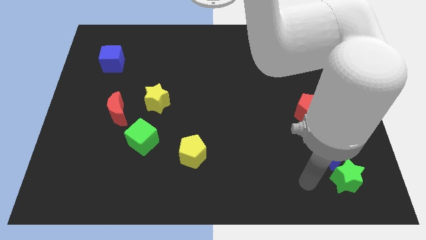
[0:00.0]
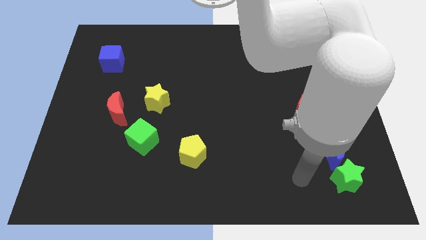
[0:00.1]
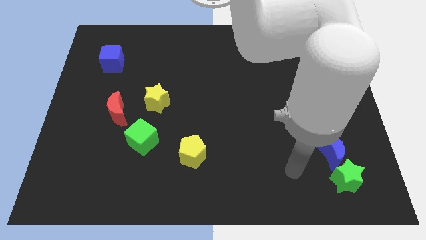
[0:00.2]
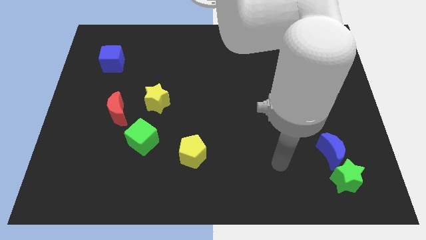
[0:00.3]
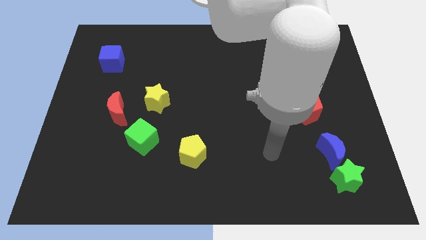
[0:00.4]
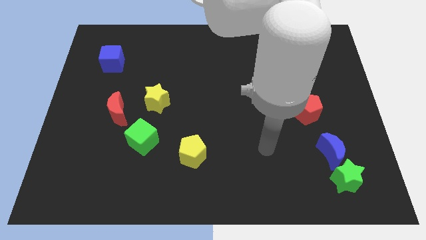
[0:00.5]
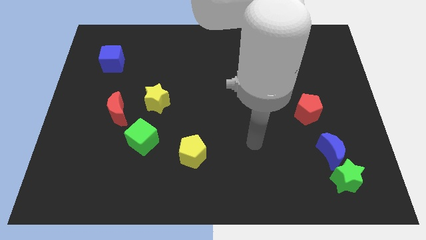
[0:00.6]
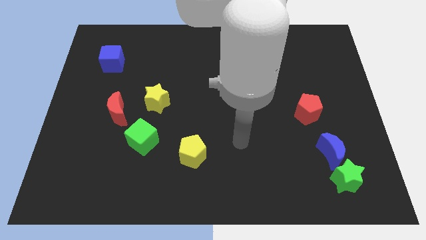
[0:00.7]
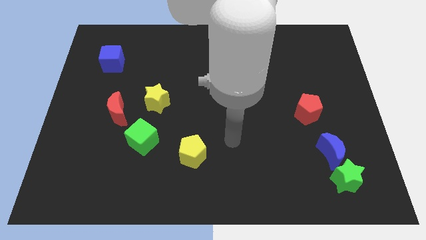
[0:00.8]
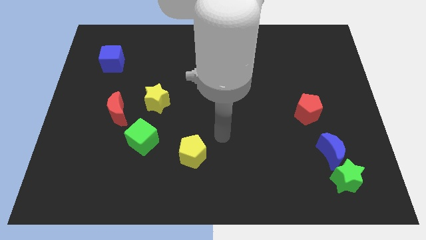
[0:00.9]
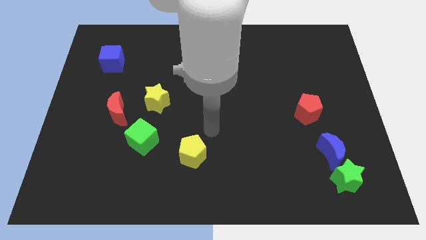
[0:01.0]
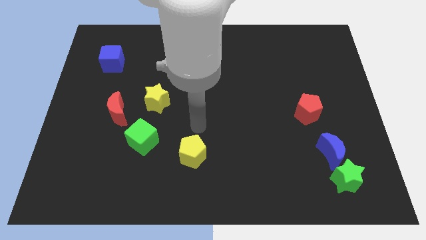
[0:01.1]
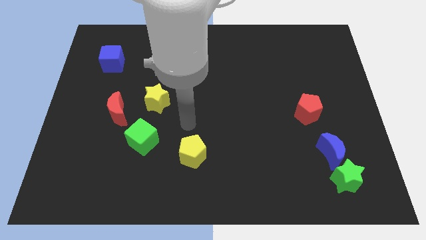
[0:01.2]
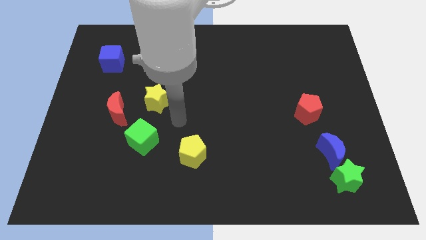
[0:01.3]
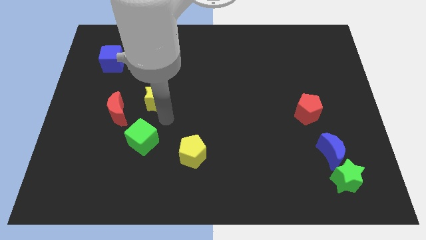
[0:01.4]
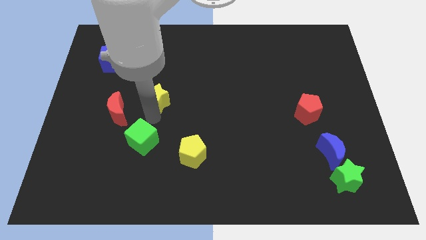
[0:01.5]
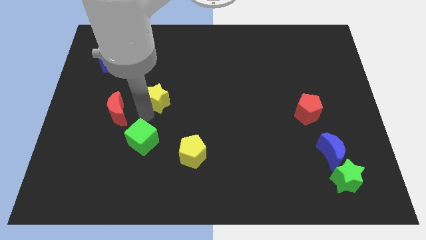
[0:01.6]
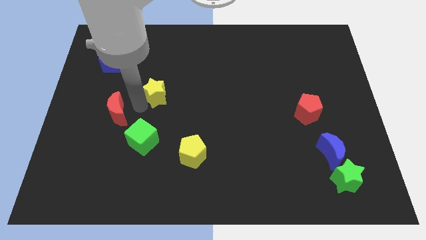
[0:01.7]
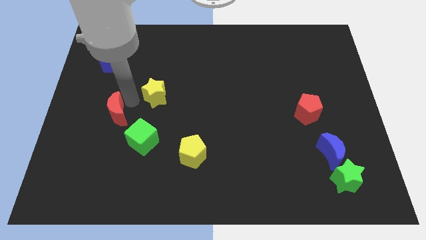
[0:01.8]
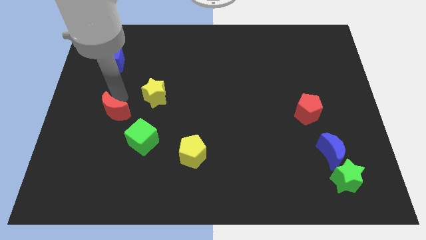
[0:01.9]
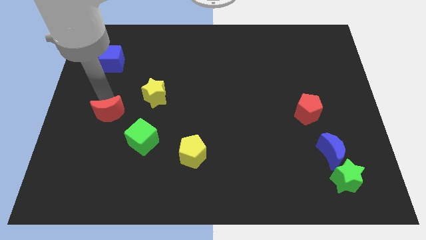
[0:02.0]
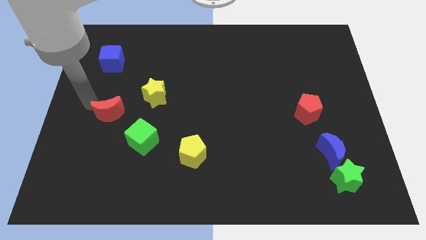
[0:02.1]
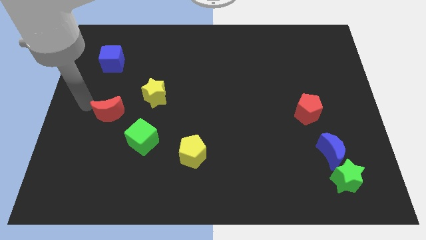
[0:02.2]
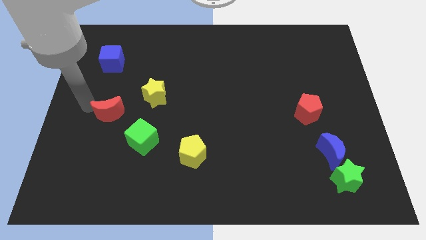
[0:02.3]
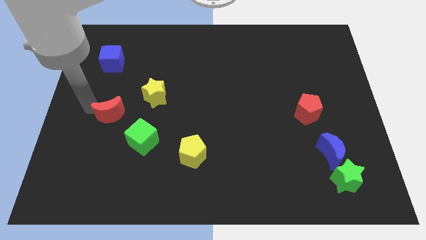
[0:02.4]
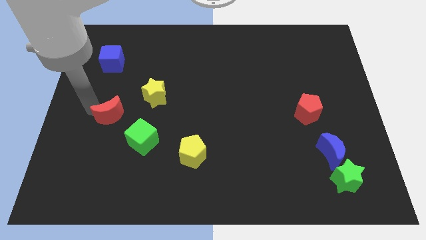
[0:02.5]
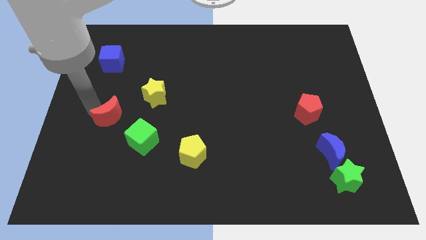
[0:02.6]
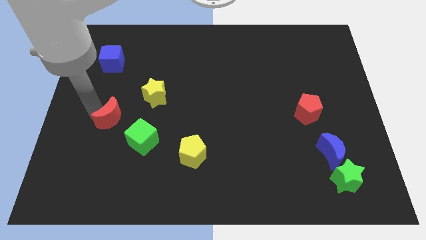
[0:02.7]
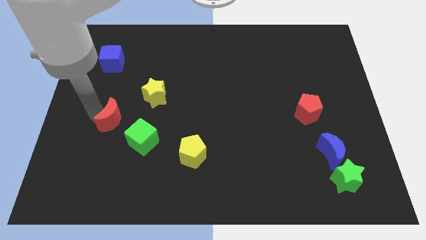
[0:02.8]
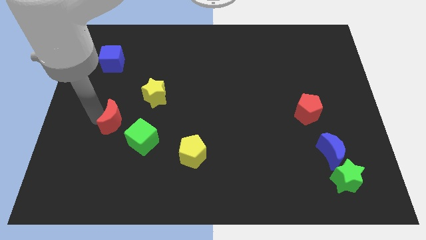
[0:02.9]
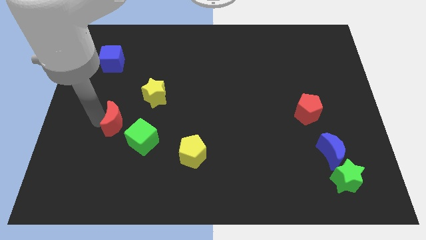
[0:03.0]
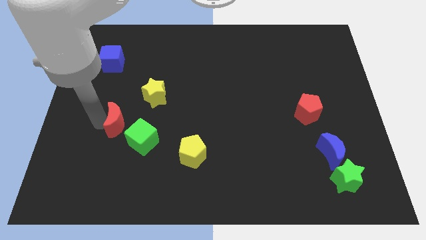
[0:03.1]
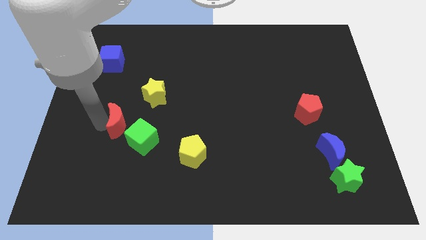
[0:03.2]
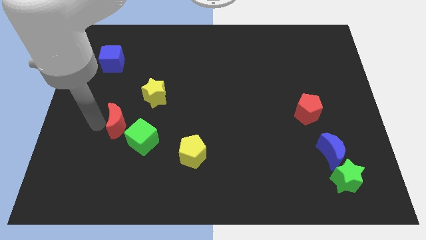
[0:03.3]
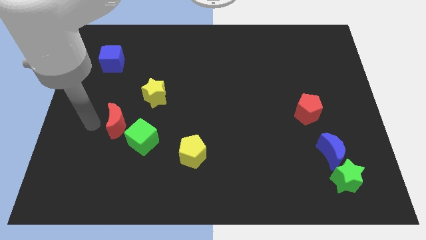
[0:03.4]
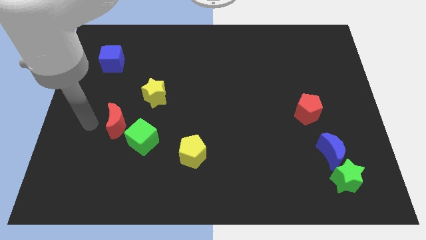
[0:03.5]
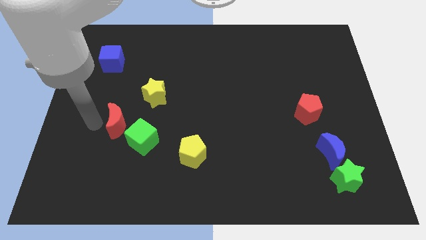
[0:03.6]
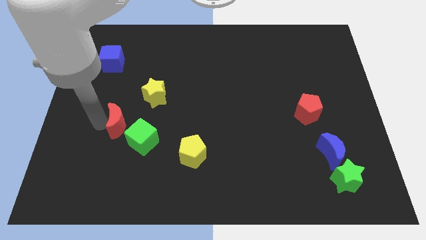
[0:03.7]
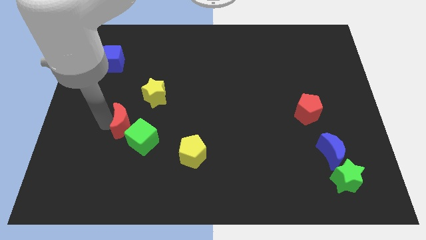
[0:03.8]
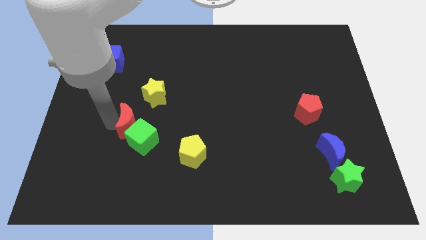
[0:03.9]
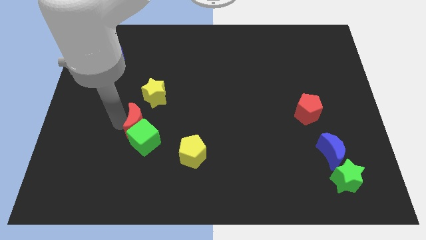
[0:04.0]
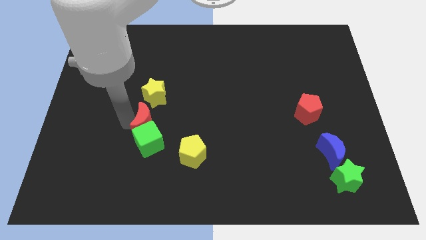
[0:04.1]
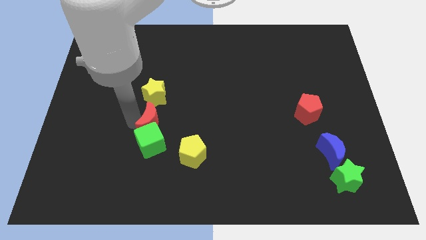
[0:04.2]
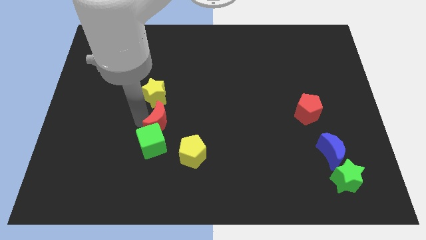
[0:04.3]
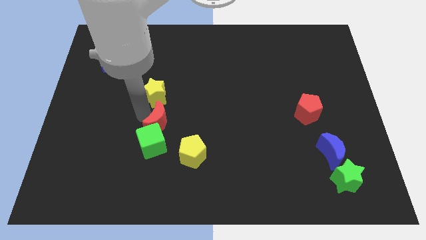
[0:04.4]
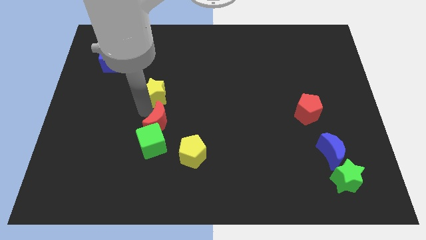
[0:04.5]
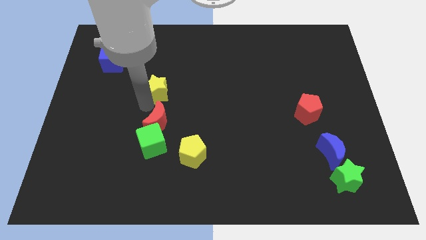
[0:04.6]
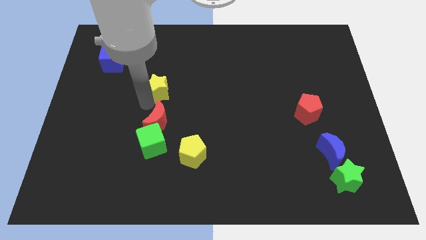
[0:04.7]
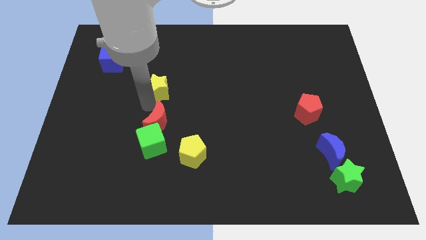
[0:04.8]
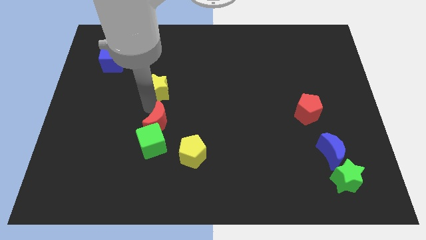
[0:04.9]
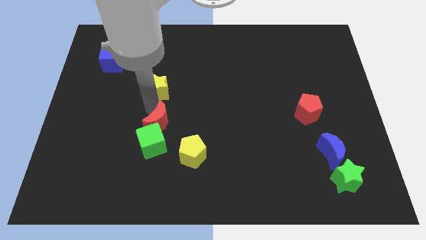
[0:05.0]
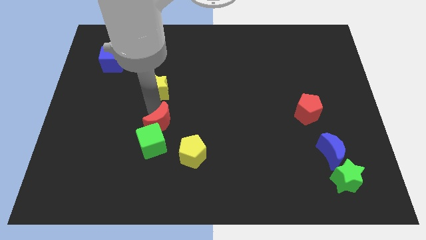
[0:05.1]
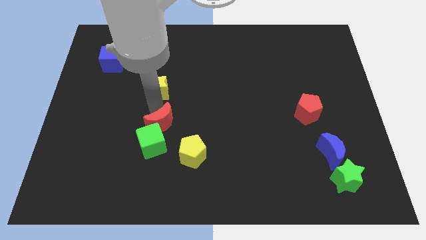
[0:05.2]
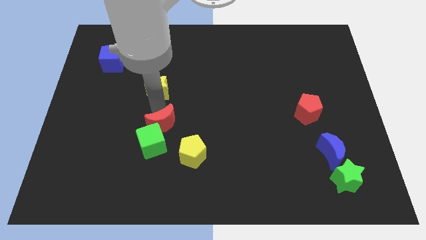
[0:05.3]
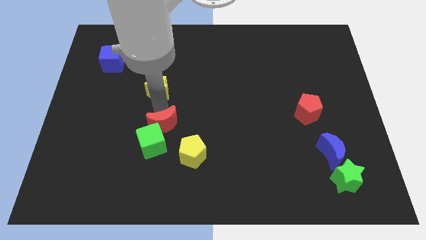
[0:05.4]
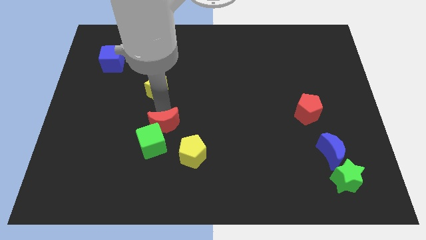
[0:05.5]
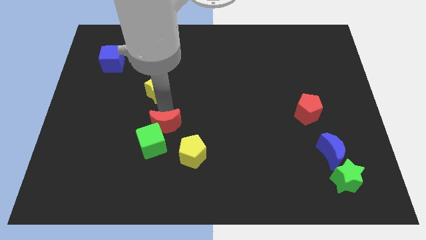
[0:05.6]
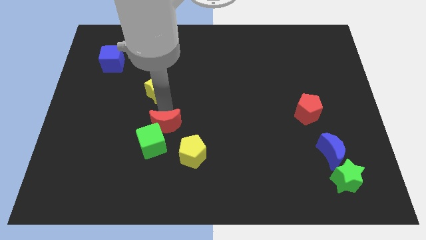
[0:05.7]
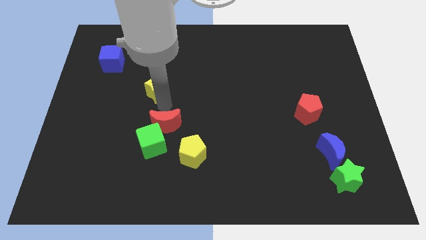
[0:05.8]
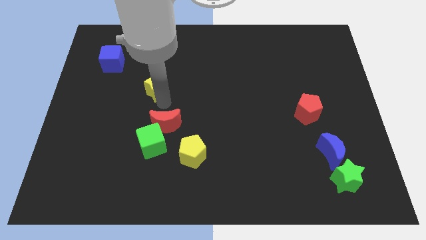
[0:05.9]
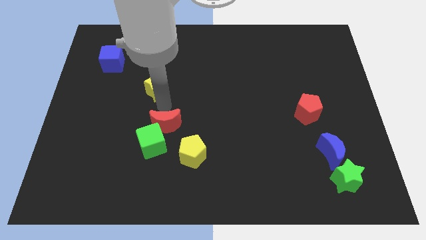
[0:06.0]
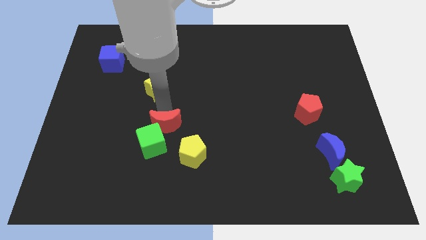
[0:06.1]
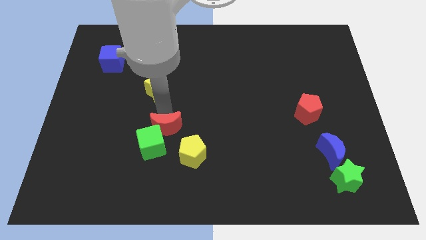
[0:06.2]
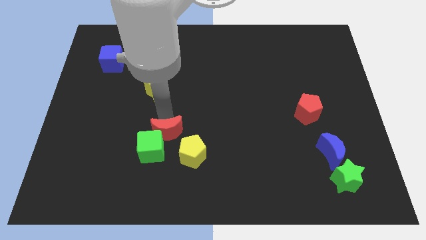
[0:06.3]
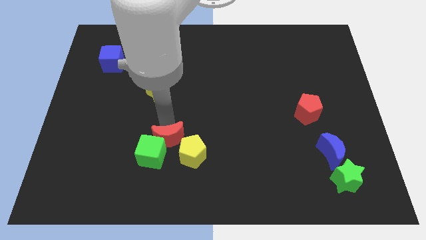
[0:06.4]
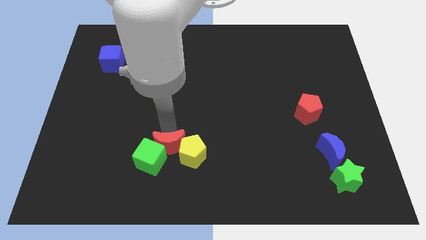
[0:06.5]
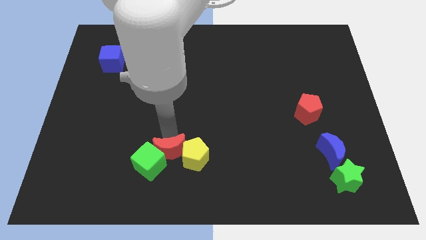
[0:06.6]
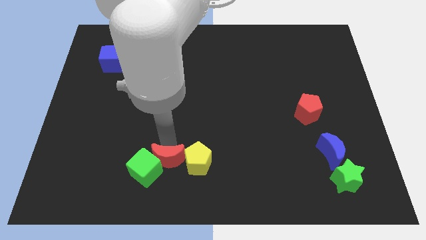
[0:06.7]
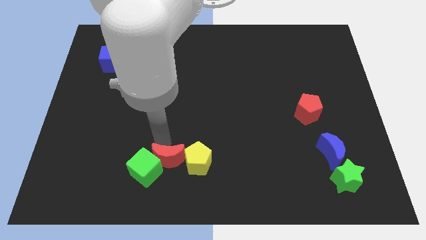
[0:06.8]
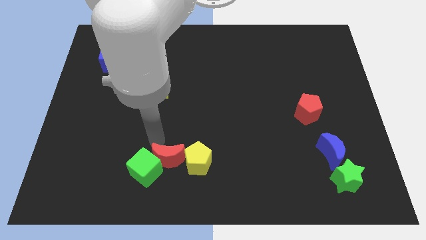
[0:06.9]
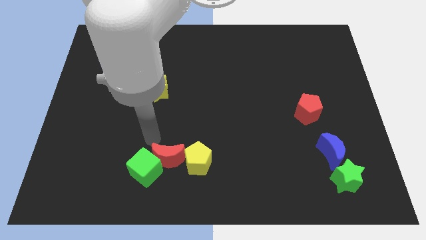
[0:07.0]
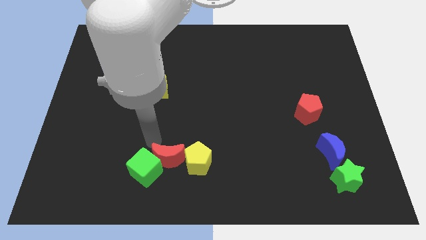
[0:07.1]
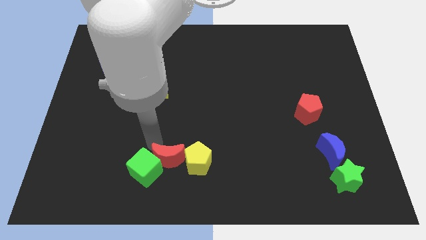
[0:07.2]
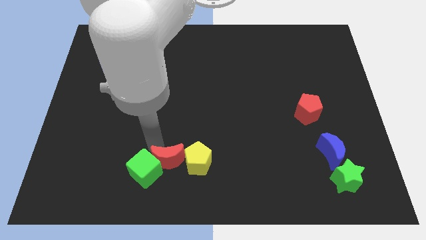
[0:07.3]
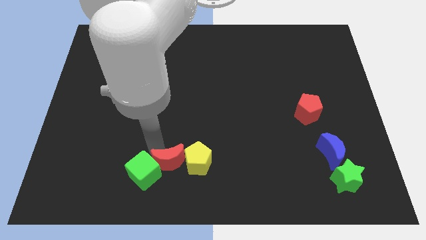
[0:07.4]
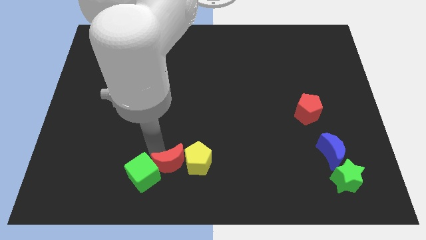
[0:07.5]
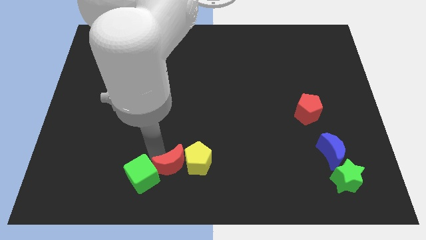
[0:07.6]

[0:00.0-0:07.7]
slide the red moon to the bottom side
